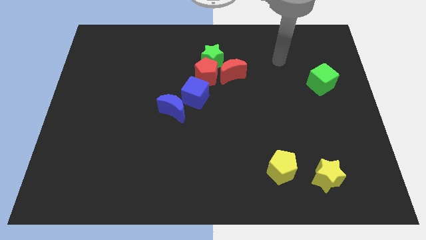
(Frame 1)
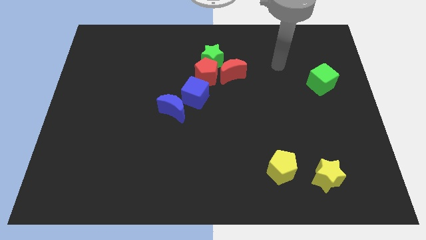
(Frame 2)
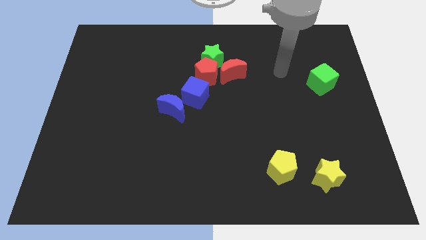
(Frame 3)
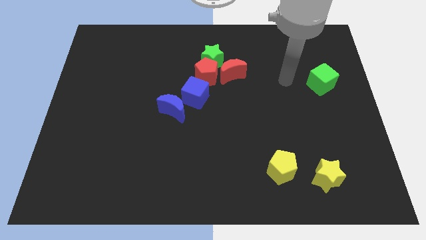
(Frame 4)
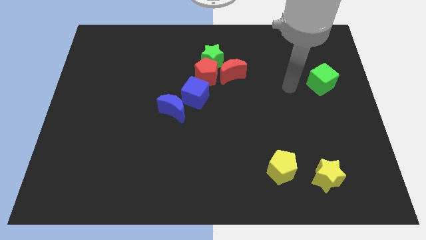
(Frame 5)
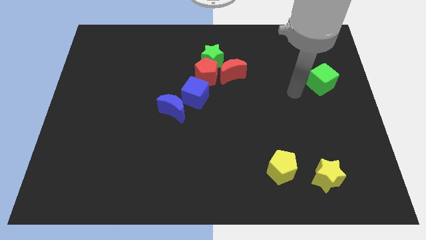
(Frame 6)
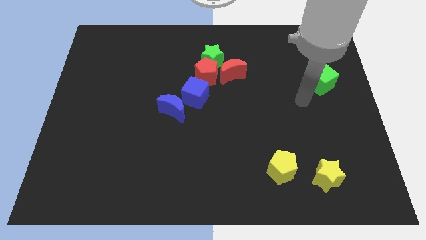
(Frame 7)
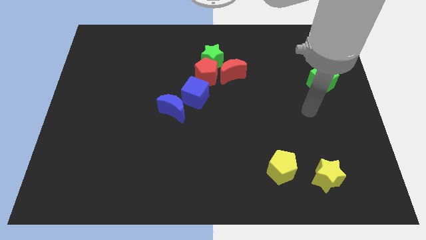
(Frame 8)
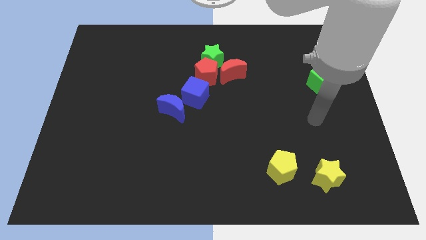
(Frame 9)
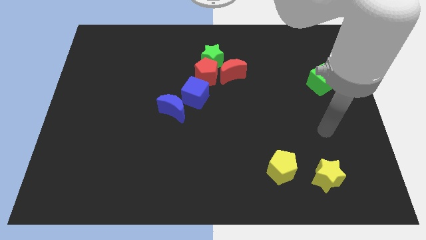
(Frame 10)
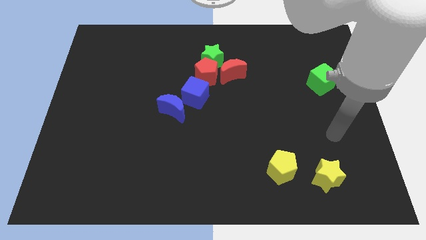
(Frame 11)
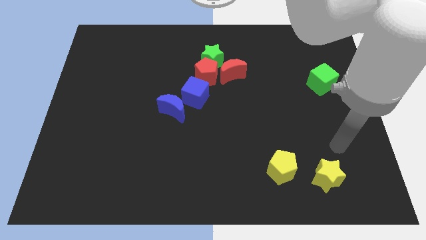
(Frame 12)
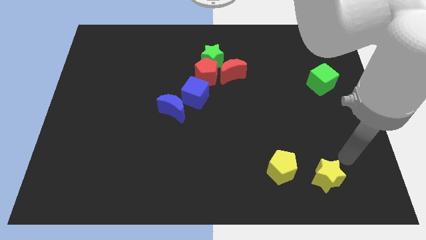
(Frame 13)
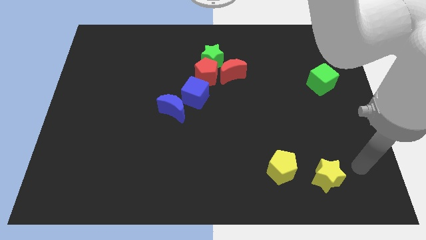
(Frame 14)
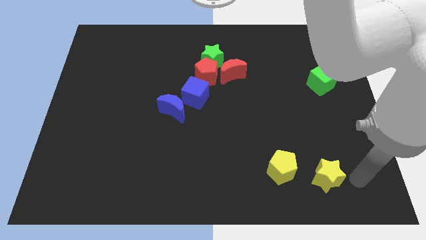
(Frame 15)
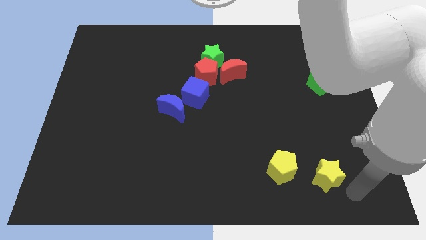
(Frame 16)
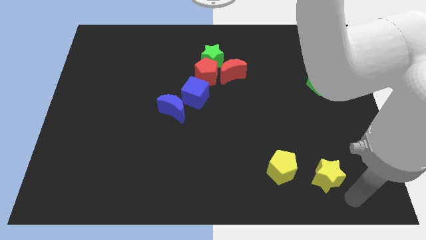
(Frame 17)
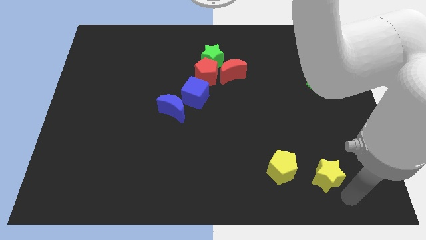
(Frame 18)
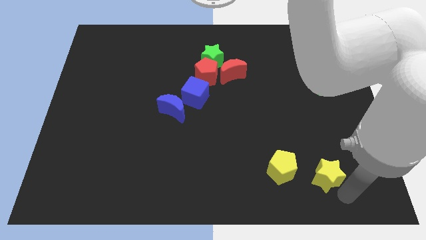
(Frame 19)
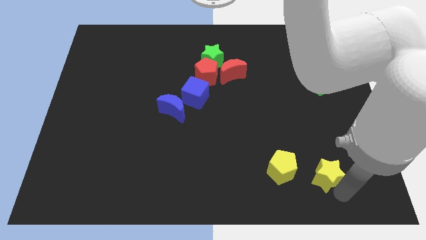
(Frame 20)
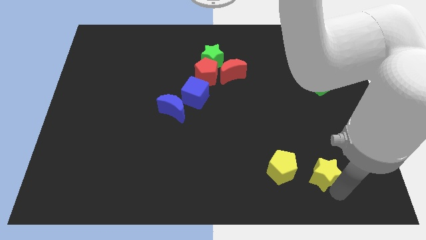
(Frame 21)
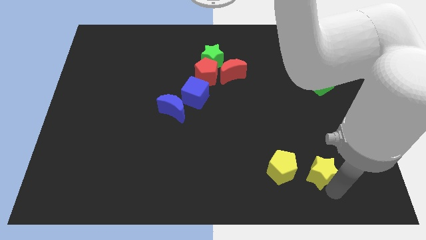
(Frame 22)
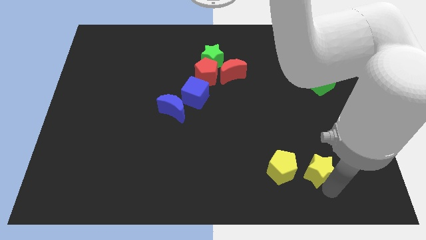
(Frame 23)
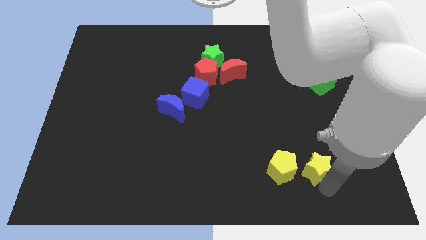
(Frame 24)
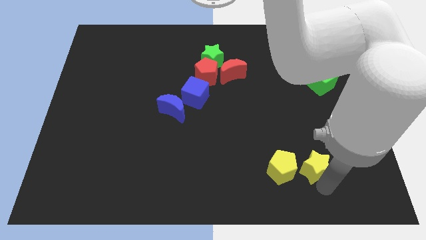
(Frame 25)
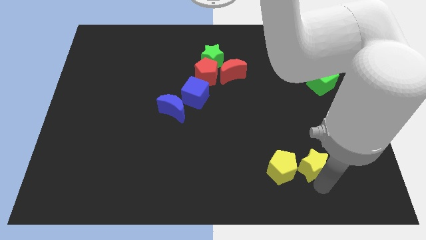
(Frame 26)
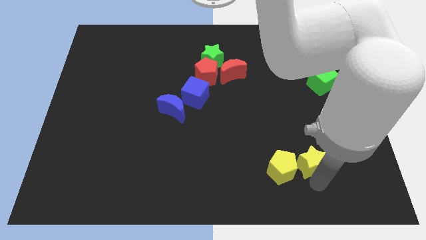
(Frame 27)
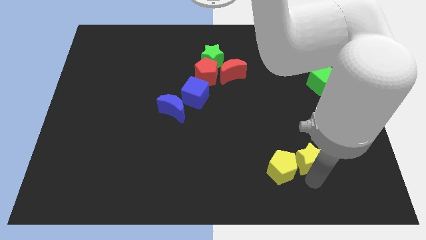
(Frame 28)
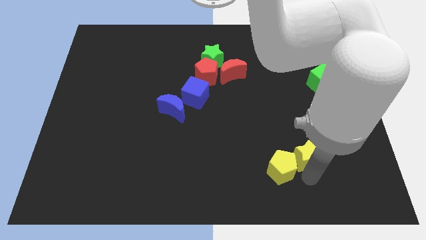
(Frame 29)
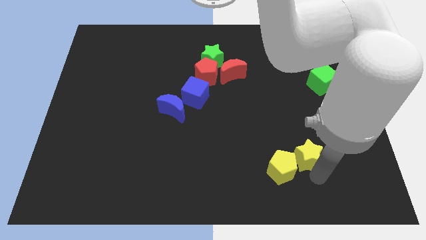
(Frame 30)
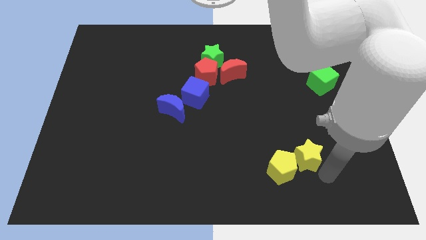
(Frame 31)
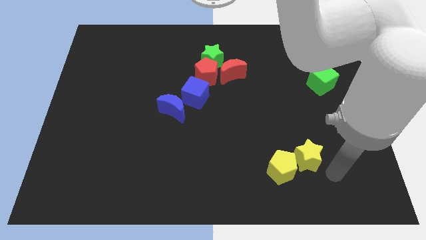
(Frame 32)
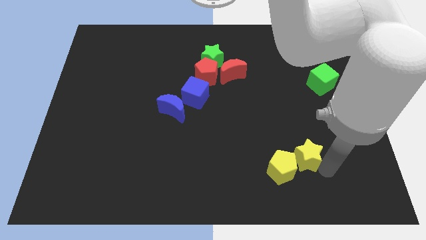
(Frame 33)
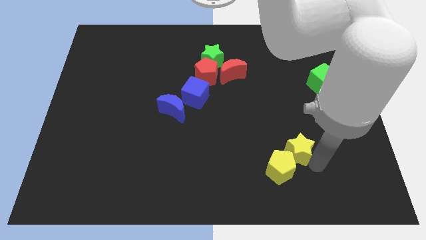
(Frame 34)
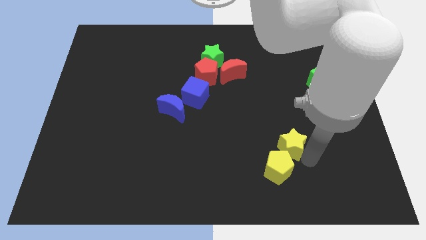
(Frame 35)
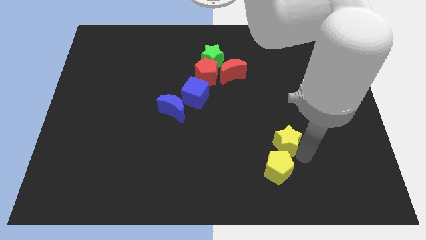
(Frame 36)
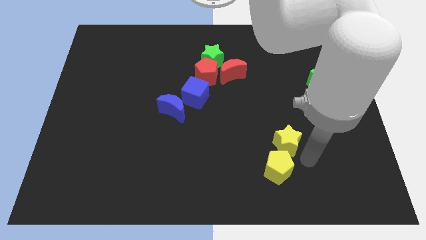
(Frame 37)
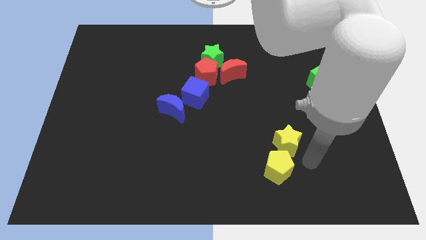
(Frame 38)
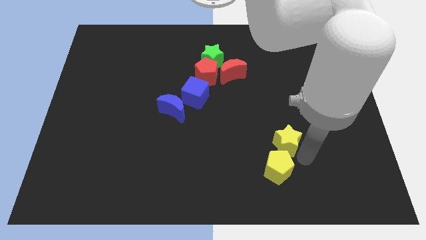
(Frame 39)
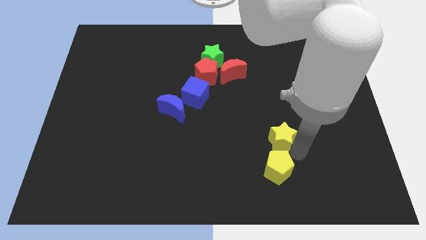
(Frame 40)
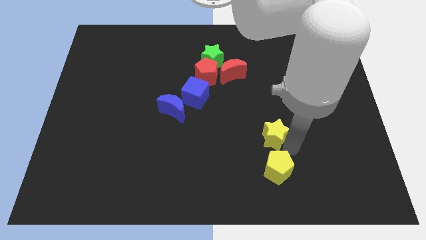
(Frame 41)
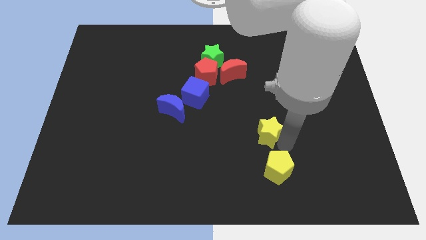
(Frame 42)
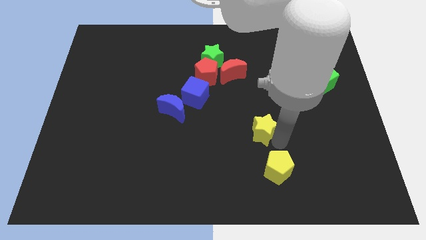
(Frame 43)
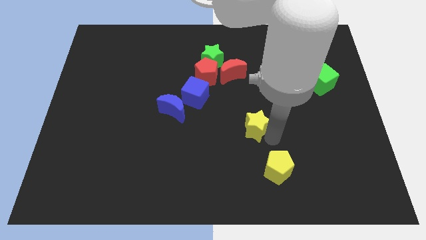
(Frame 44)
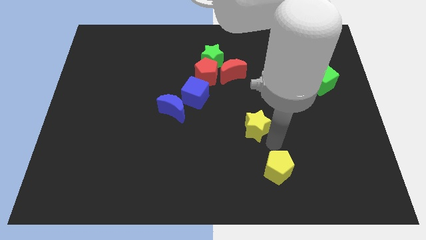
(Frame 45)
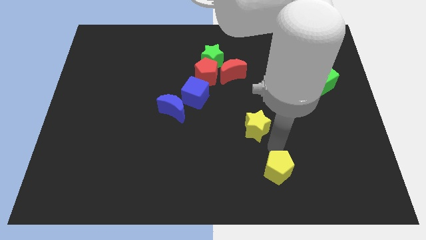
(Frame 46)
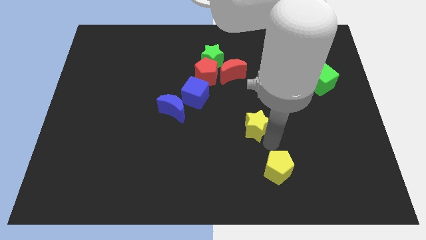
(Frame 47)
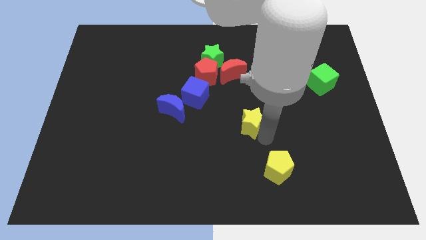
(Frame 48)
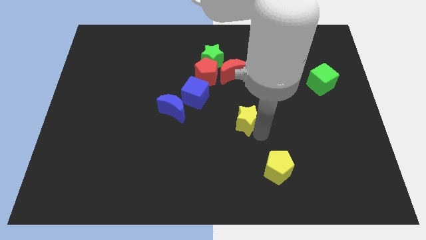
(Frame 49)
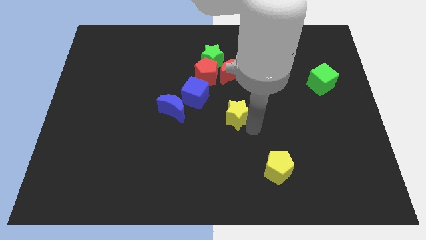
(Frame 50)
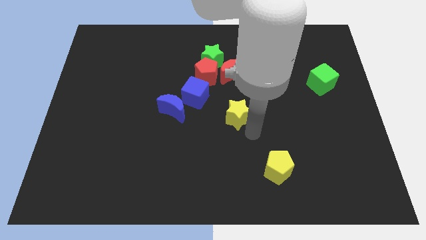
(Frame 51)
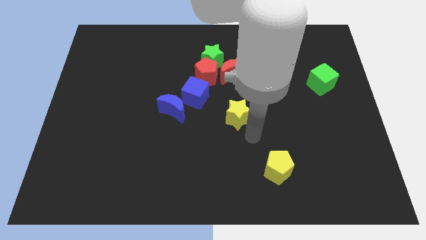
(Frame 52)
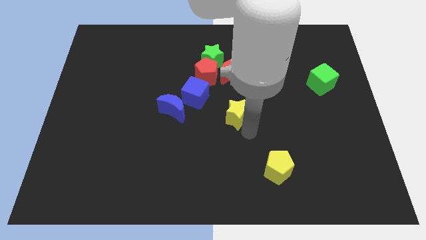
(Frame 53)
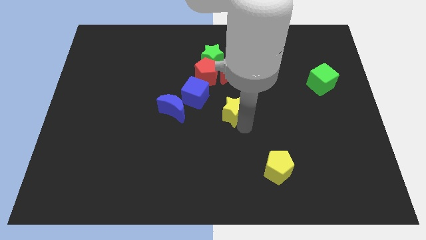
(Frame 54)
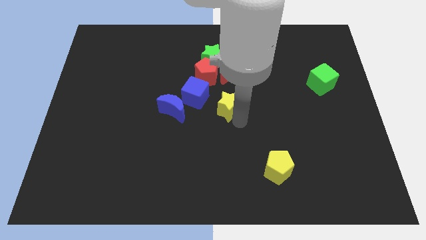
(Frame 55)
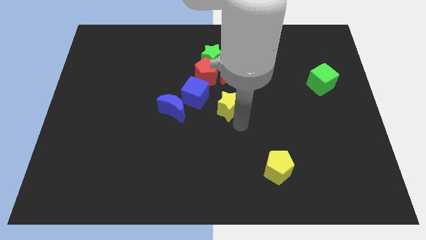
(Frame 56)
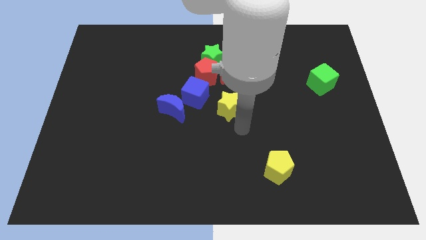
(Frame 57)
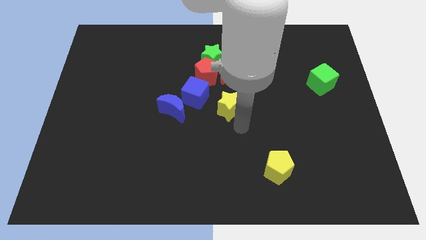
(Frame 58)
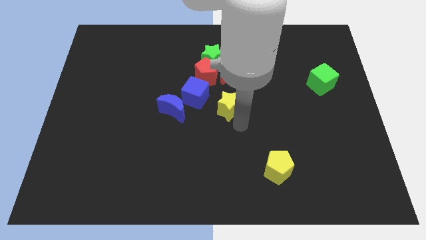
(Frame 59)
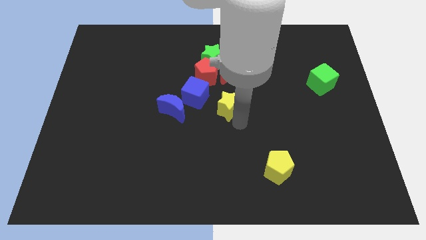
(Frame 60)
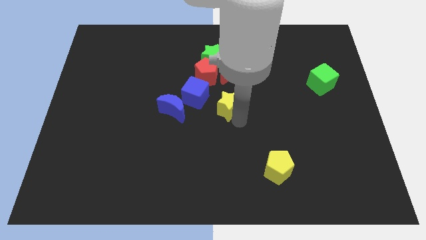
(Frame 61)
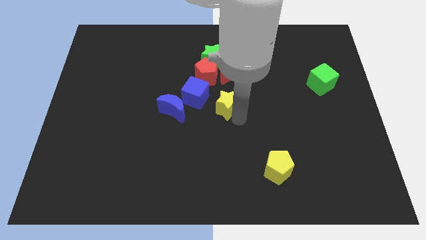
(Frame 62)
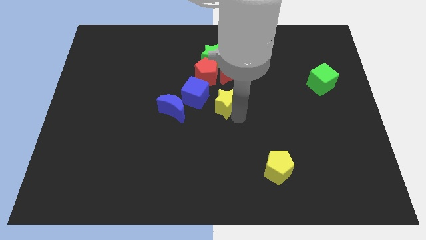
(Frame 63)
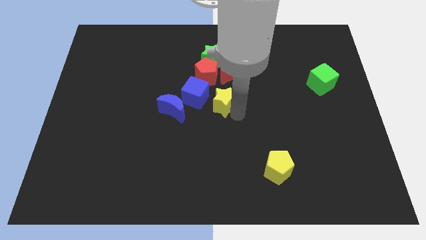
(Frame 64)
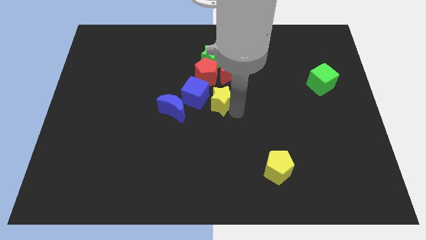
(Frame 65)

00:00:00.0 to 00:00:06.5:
slide the yellow star to the bottom left side of the red moon
